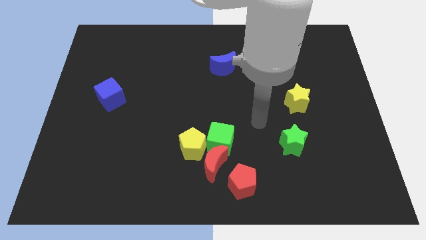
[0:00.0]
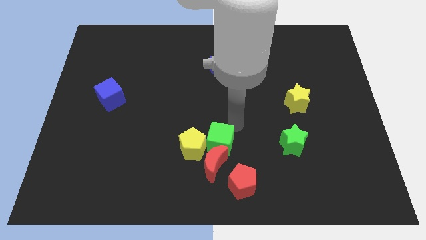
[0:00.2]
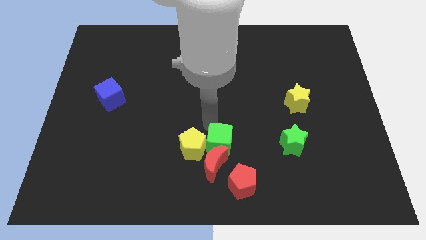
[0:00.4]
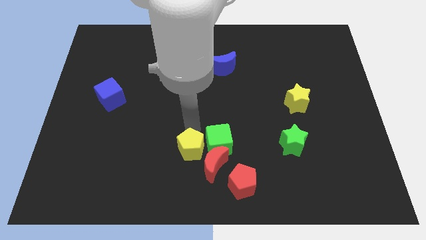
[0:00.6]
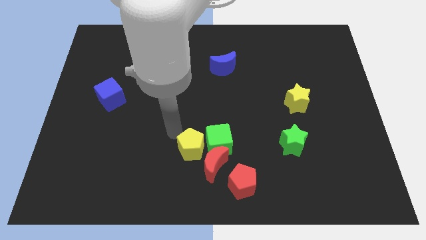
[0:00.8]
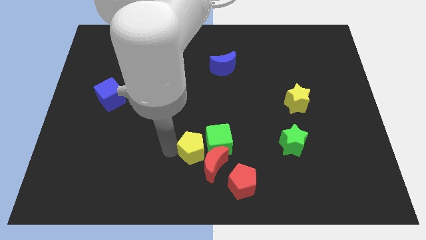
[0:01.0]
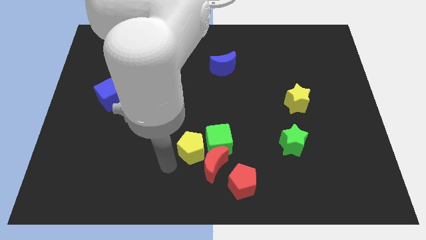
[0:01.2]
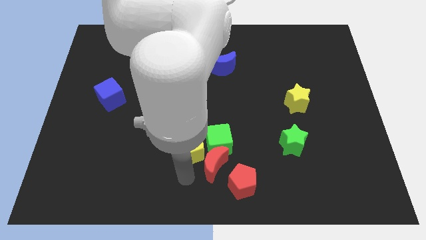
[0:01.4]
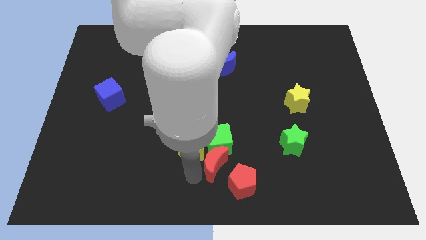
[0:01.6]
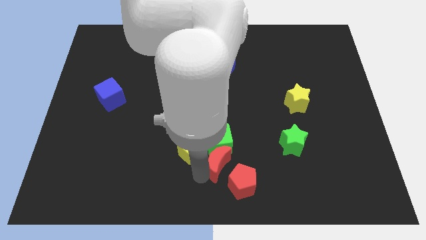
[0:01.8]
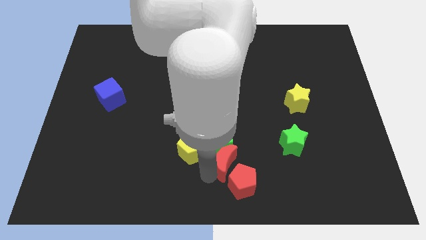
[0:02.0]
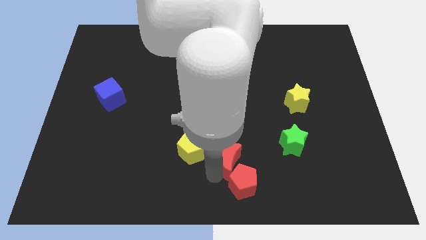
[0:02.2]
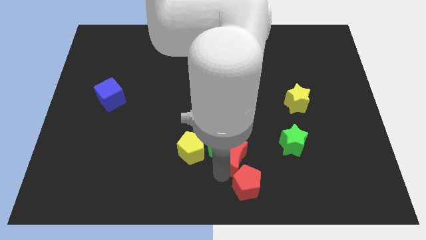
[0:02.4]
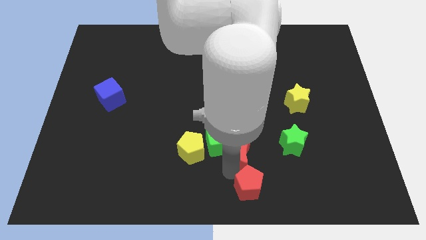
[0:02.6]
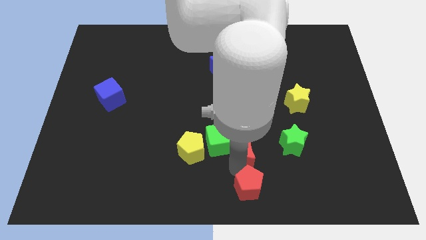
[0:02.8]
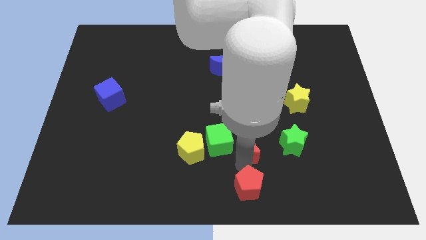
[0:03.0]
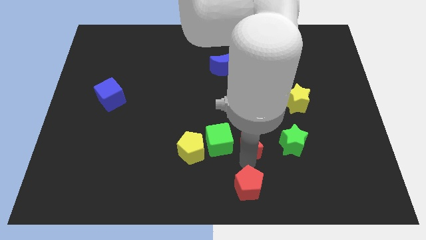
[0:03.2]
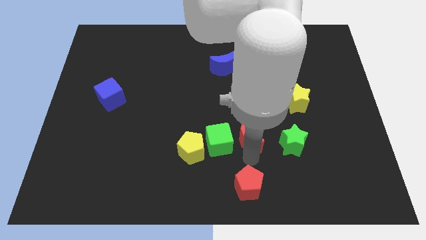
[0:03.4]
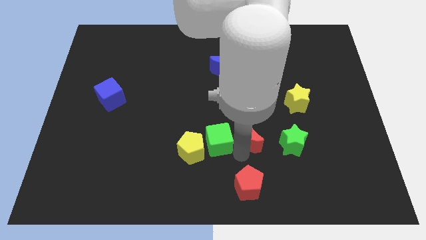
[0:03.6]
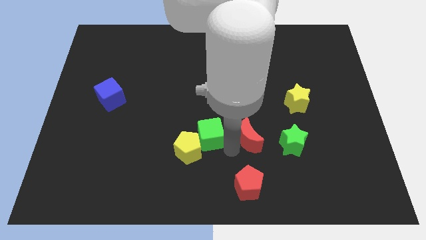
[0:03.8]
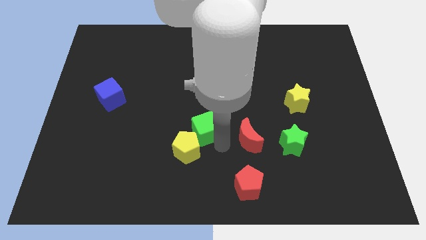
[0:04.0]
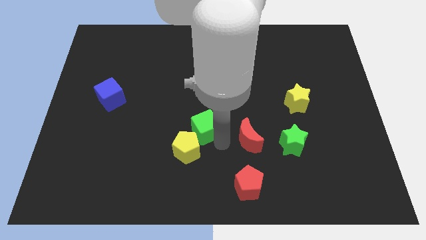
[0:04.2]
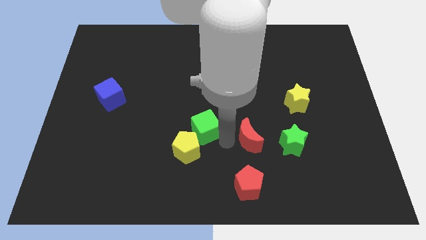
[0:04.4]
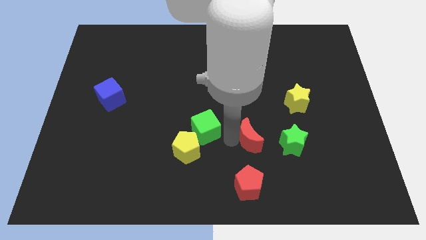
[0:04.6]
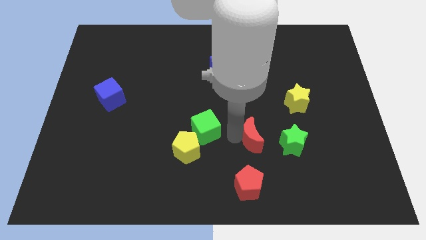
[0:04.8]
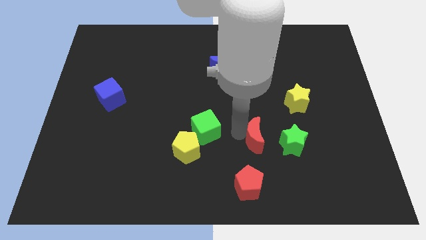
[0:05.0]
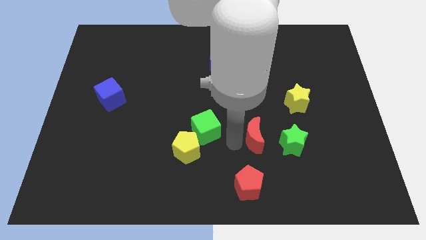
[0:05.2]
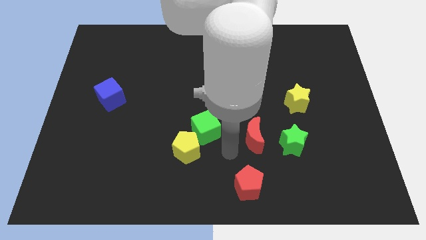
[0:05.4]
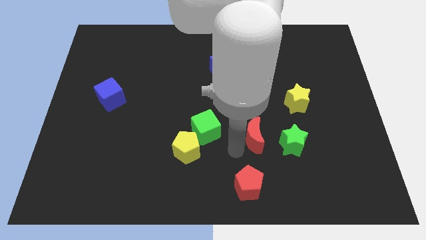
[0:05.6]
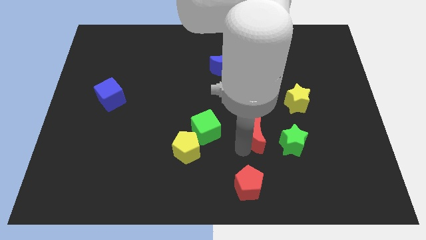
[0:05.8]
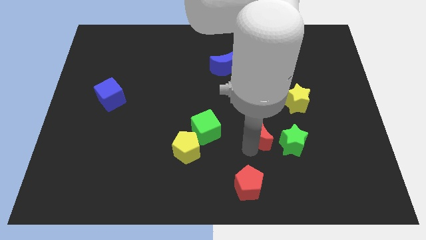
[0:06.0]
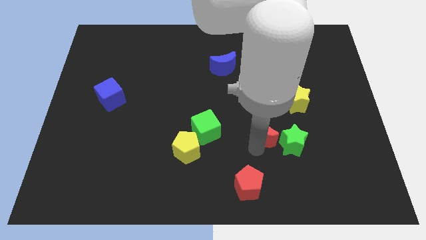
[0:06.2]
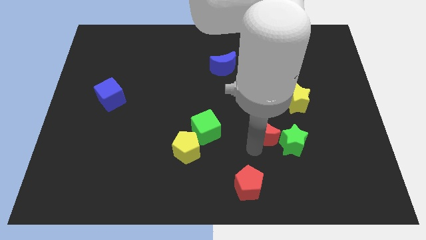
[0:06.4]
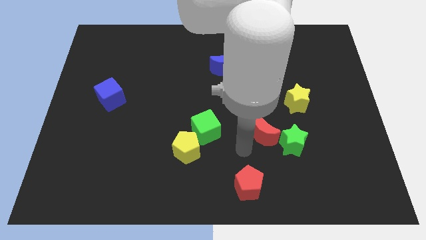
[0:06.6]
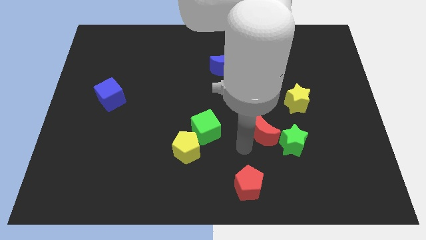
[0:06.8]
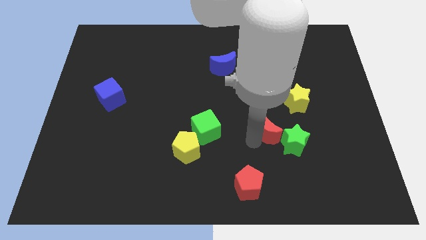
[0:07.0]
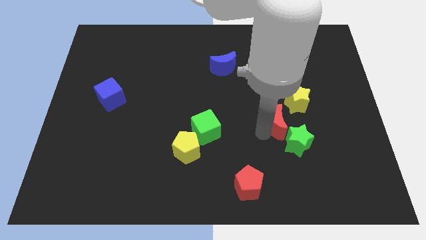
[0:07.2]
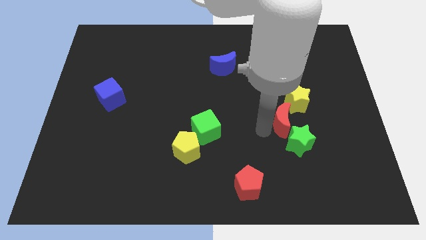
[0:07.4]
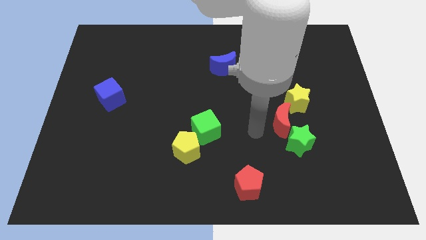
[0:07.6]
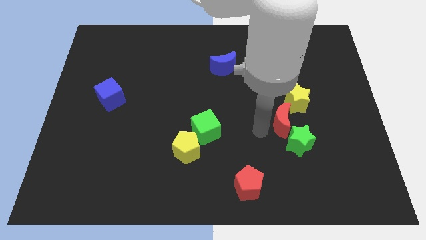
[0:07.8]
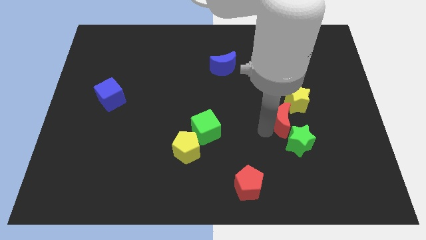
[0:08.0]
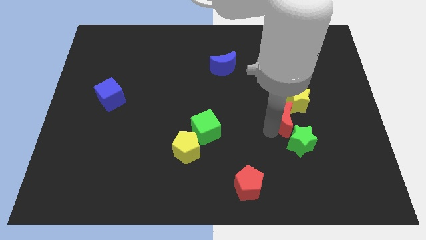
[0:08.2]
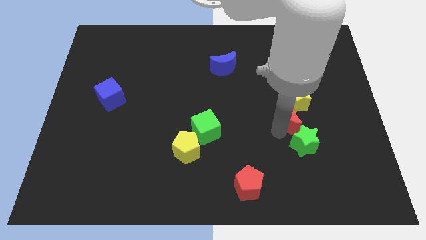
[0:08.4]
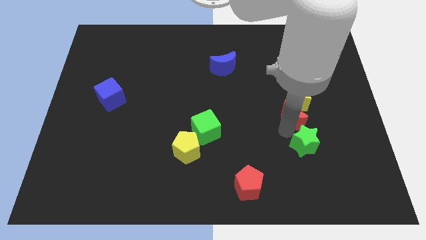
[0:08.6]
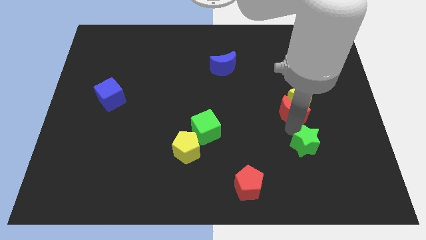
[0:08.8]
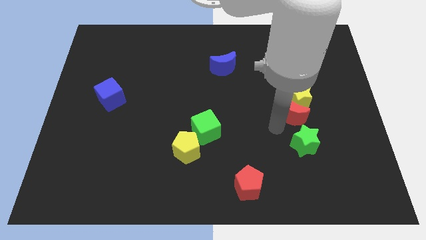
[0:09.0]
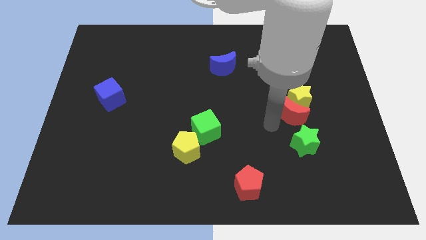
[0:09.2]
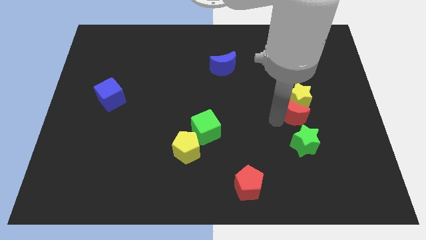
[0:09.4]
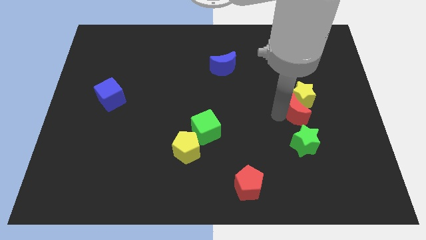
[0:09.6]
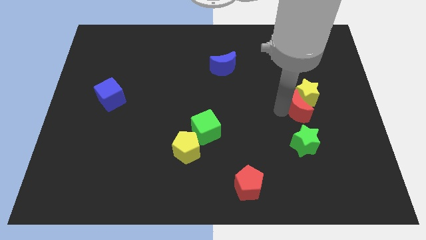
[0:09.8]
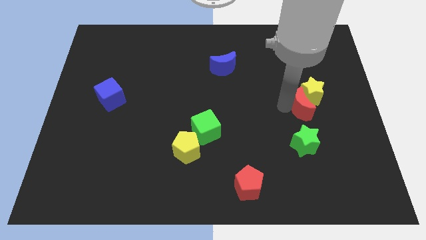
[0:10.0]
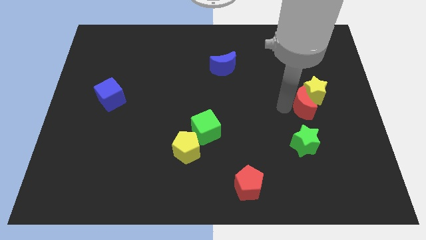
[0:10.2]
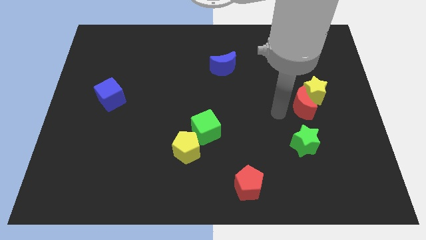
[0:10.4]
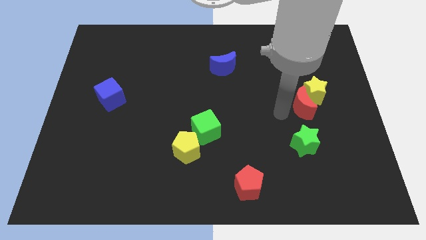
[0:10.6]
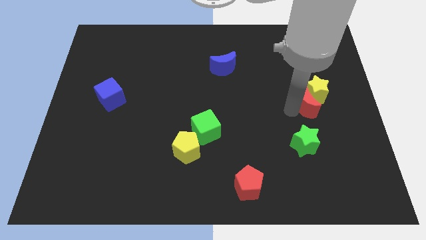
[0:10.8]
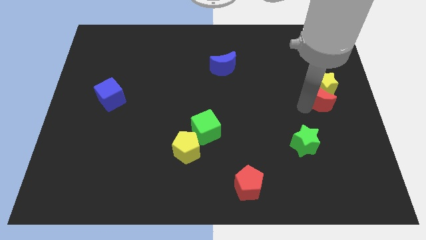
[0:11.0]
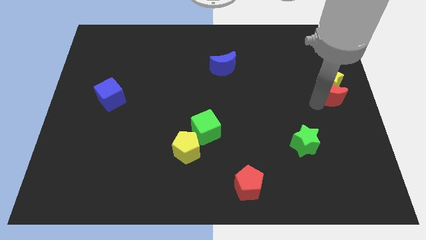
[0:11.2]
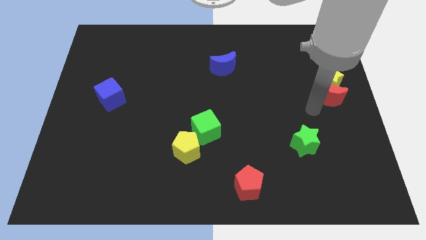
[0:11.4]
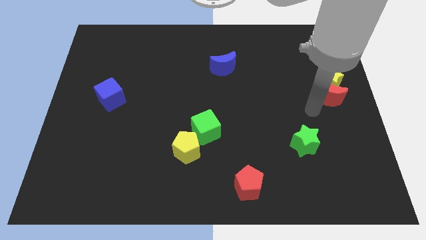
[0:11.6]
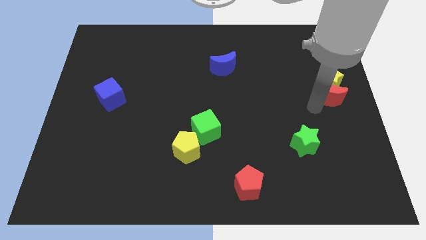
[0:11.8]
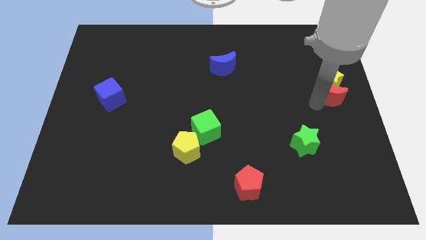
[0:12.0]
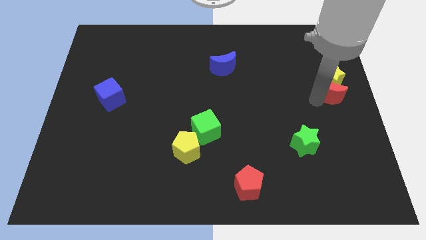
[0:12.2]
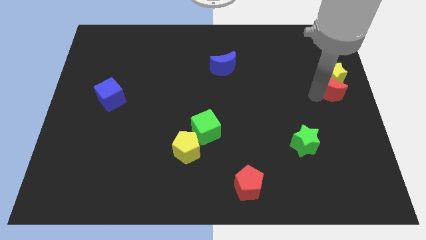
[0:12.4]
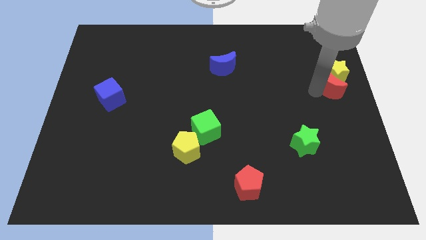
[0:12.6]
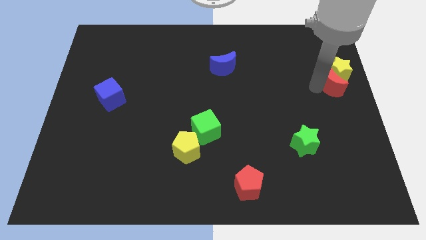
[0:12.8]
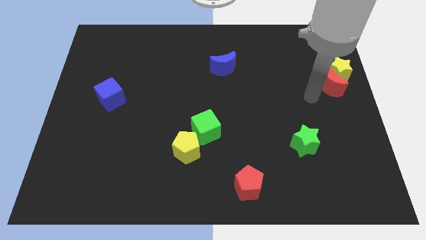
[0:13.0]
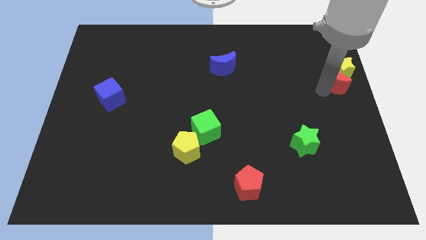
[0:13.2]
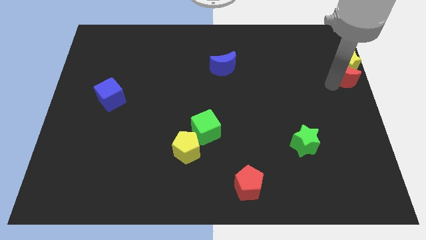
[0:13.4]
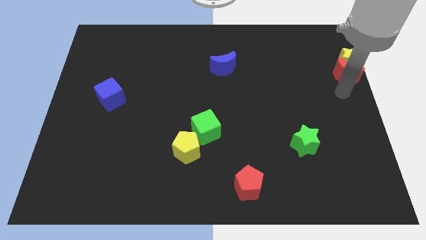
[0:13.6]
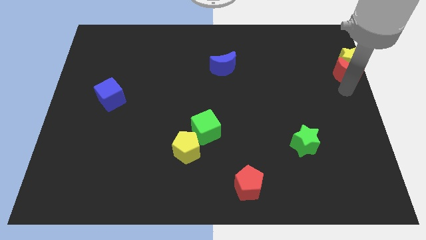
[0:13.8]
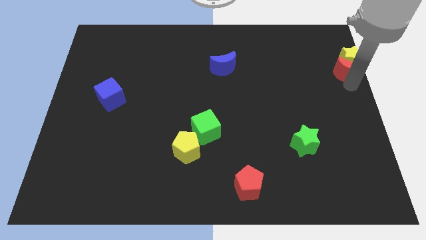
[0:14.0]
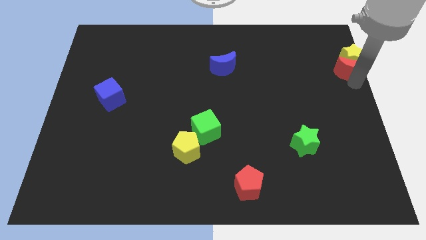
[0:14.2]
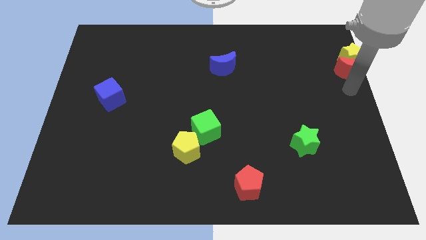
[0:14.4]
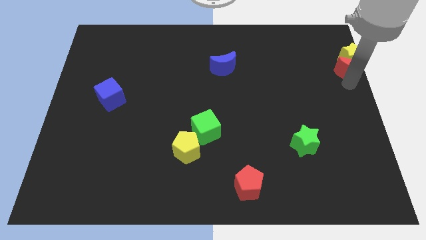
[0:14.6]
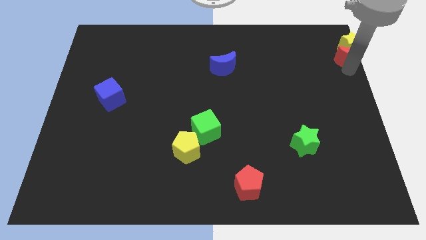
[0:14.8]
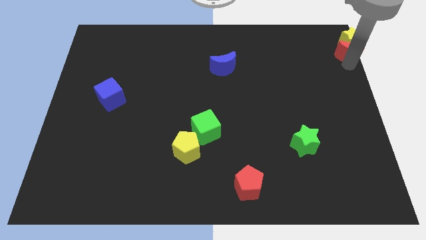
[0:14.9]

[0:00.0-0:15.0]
slide the red moon to the top right
